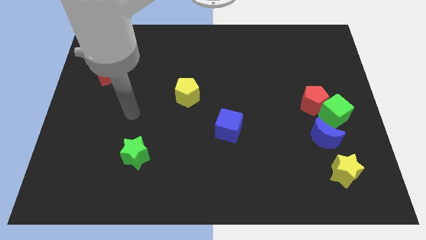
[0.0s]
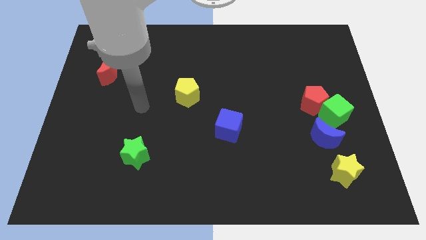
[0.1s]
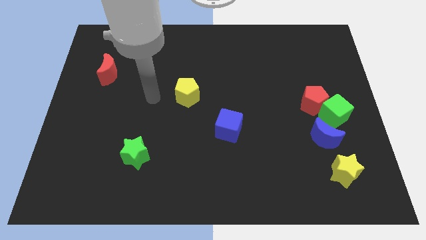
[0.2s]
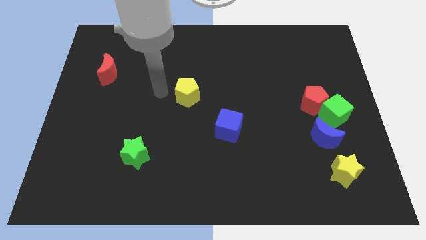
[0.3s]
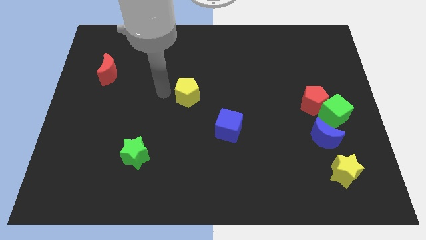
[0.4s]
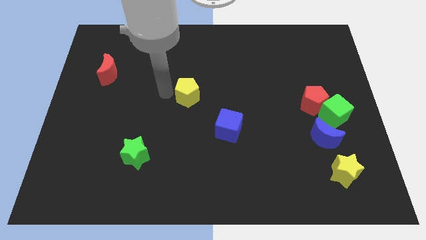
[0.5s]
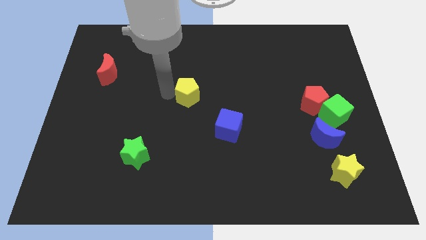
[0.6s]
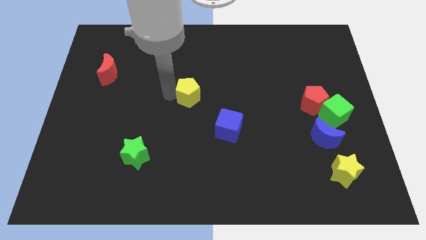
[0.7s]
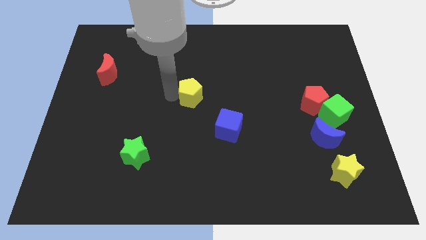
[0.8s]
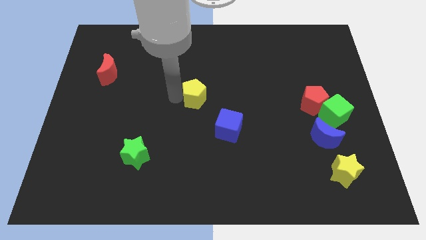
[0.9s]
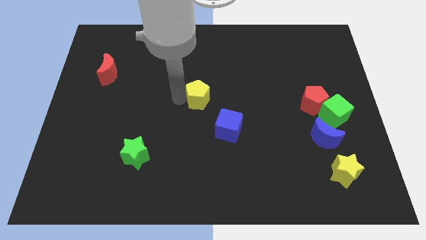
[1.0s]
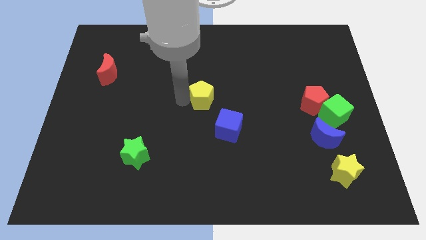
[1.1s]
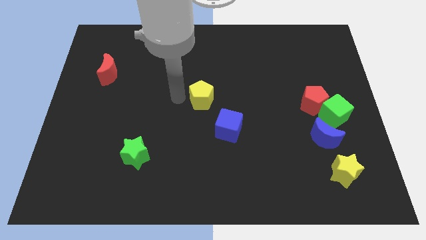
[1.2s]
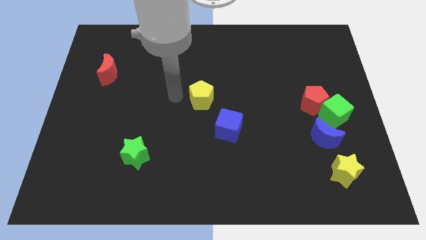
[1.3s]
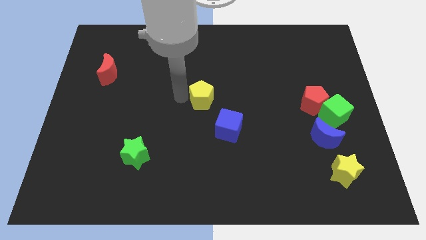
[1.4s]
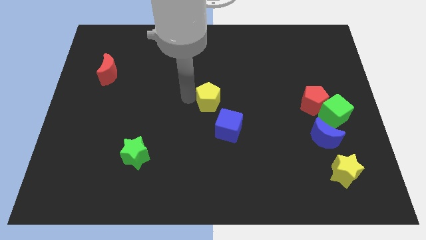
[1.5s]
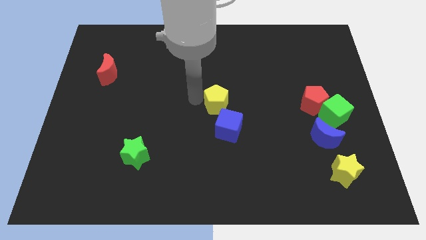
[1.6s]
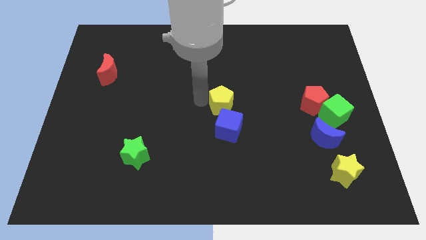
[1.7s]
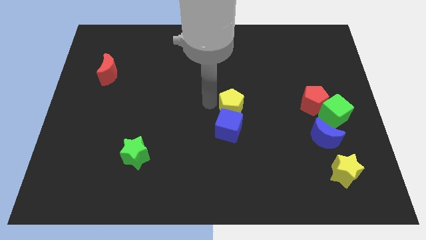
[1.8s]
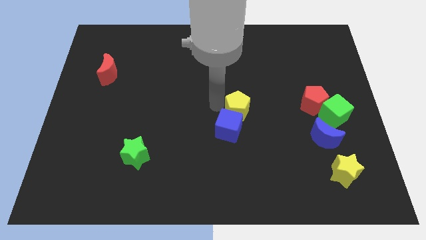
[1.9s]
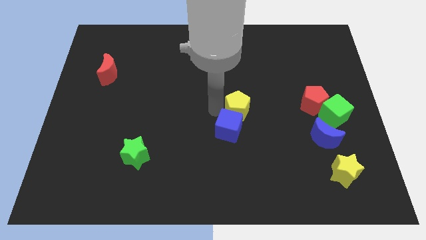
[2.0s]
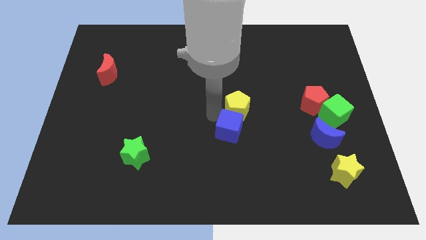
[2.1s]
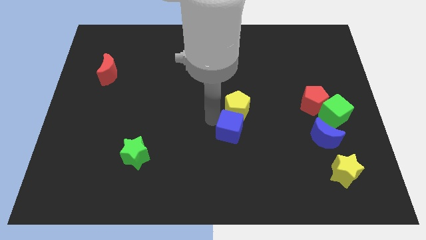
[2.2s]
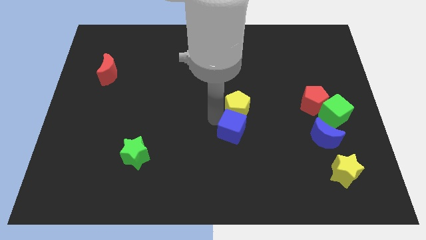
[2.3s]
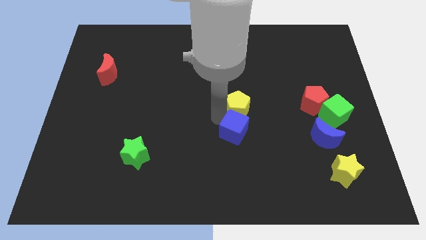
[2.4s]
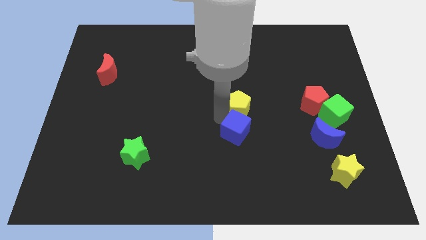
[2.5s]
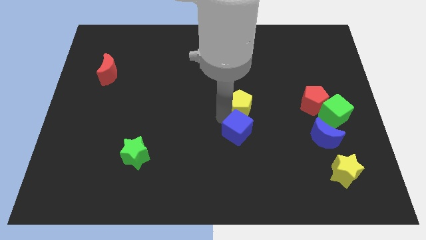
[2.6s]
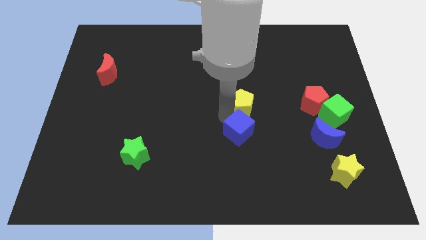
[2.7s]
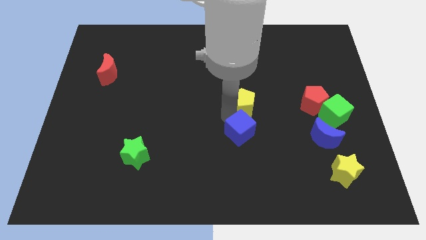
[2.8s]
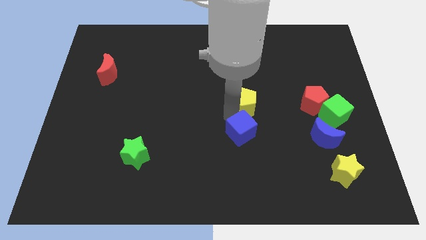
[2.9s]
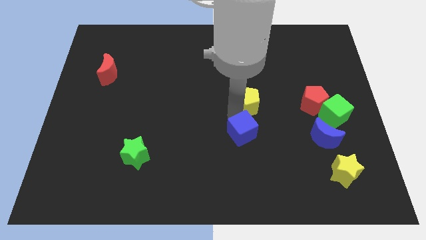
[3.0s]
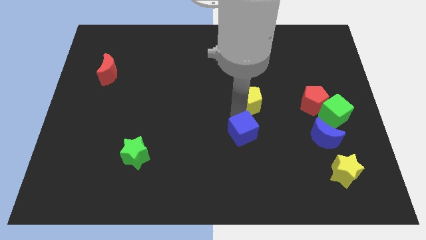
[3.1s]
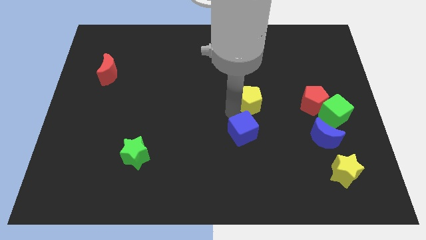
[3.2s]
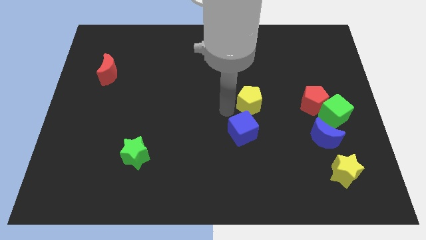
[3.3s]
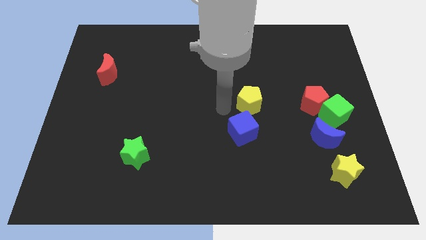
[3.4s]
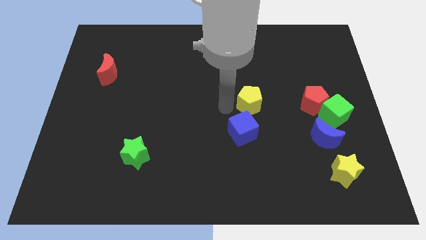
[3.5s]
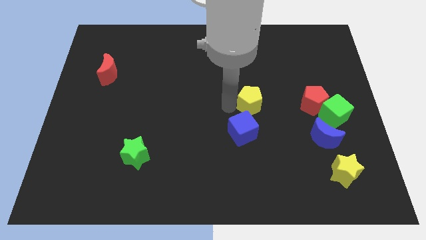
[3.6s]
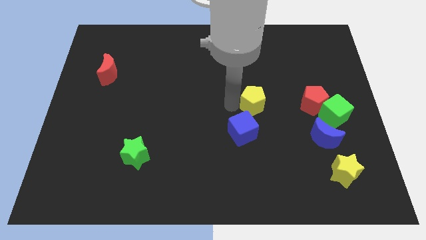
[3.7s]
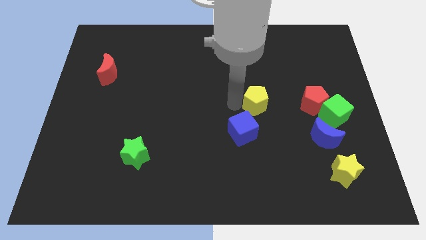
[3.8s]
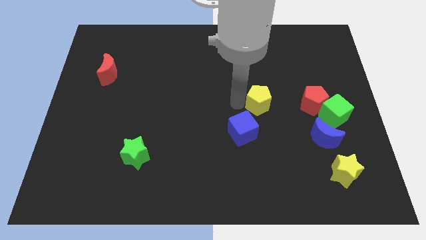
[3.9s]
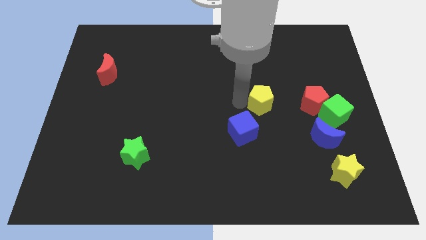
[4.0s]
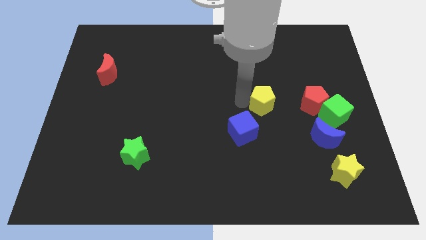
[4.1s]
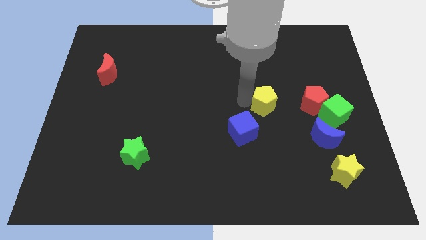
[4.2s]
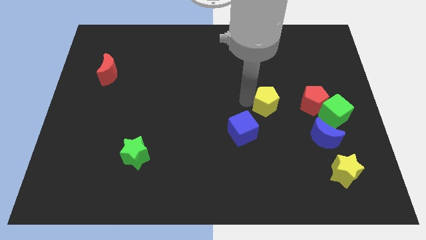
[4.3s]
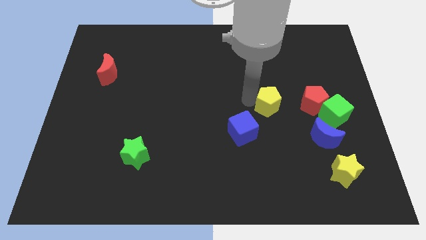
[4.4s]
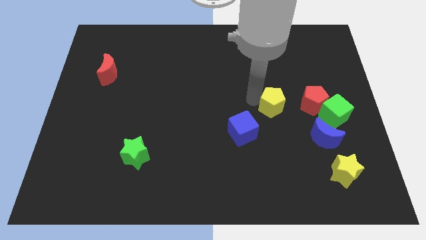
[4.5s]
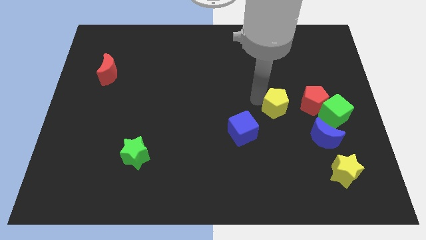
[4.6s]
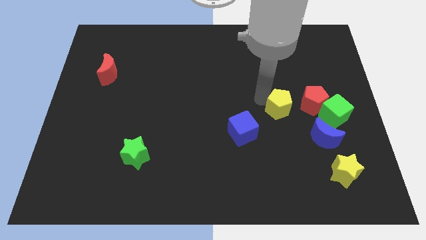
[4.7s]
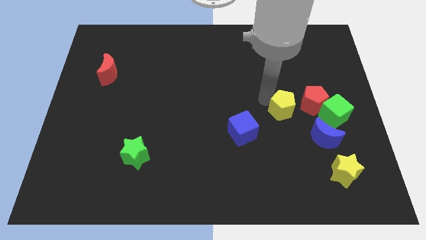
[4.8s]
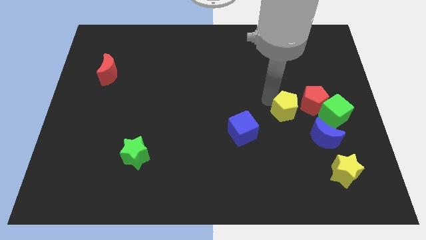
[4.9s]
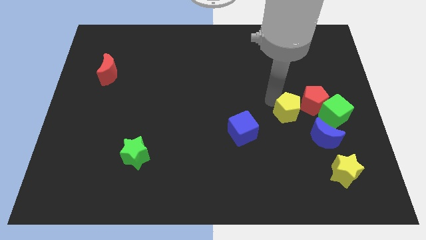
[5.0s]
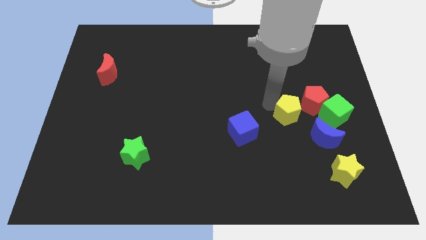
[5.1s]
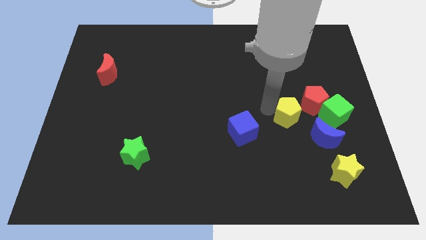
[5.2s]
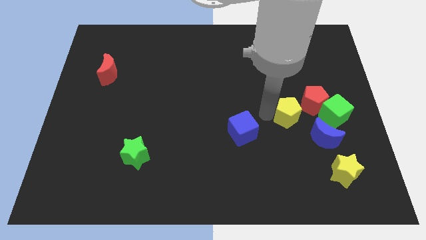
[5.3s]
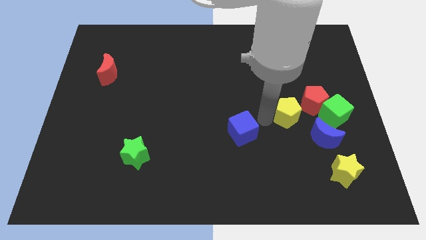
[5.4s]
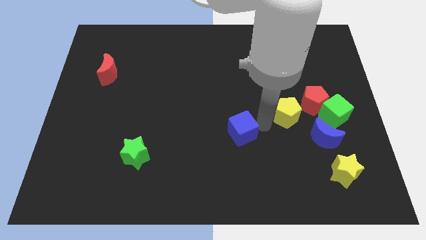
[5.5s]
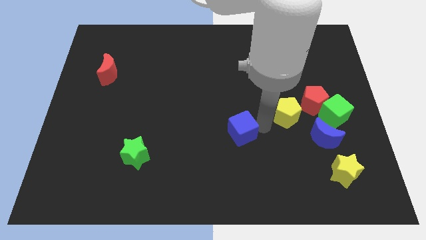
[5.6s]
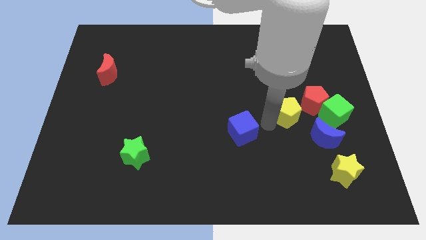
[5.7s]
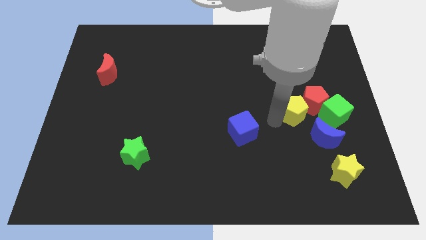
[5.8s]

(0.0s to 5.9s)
slide the yellow pentagon to the red pentagon

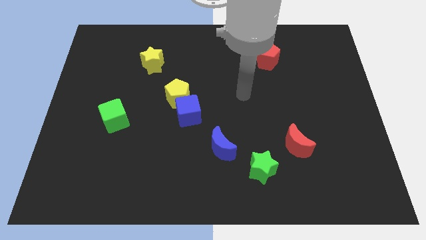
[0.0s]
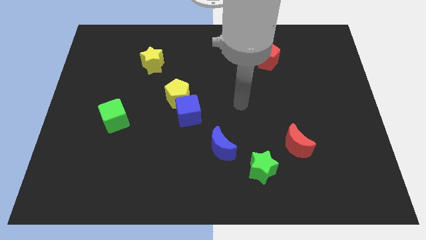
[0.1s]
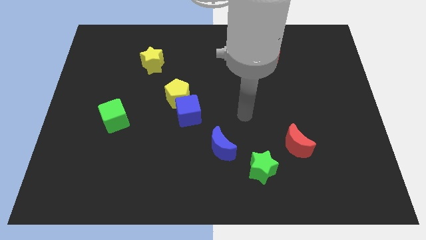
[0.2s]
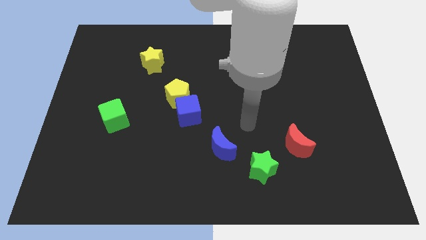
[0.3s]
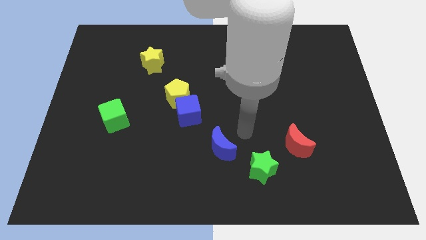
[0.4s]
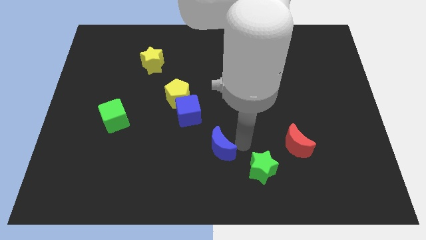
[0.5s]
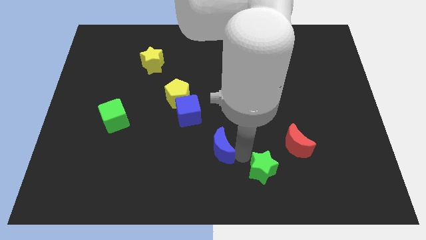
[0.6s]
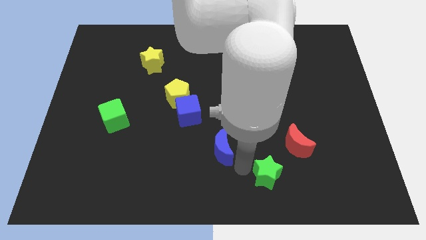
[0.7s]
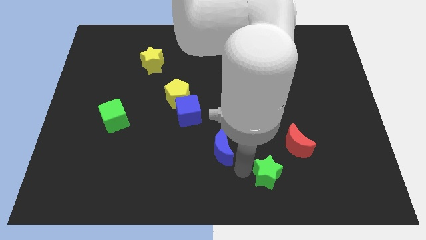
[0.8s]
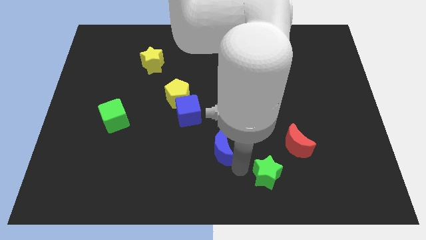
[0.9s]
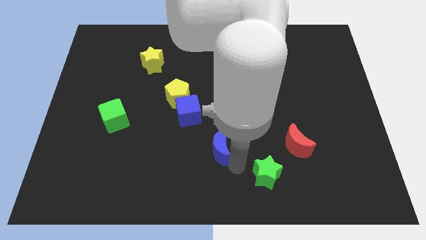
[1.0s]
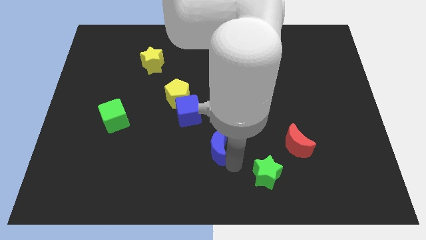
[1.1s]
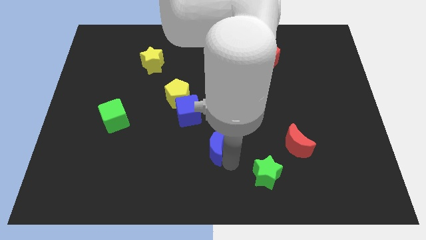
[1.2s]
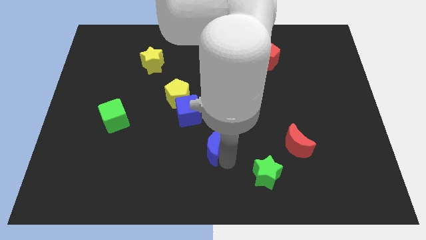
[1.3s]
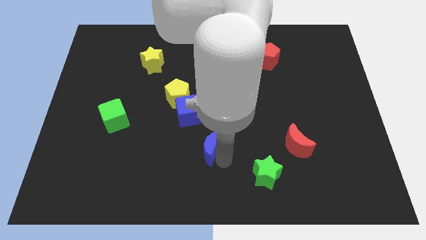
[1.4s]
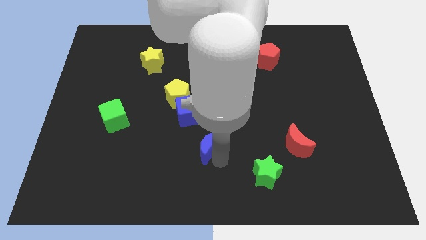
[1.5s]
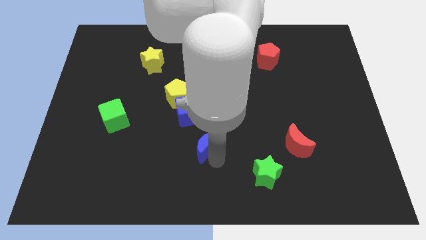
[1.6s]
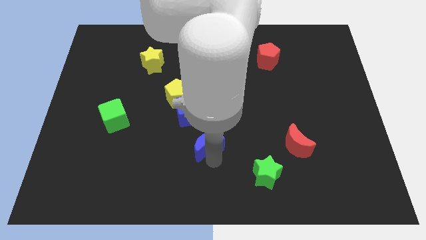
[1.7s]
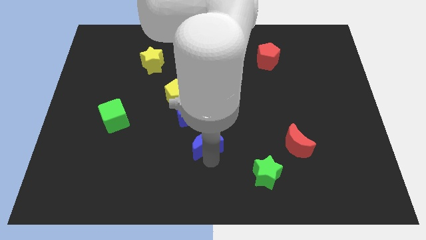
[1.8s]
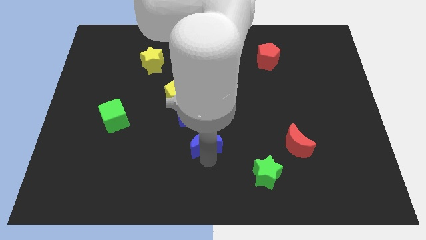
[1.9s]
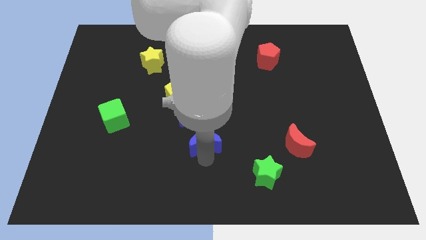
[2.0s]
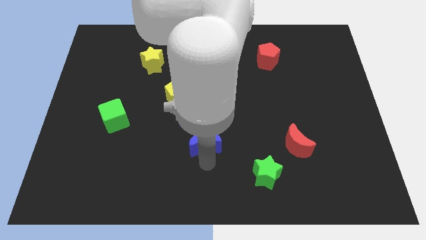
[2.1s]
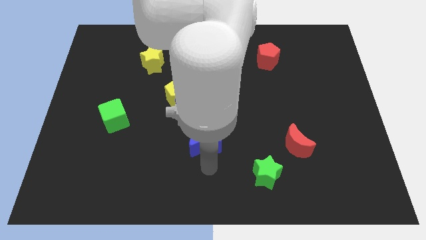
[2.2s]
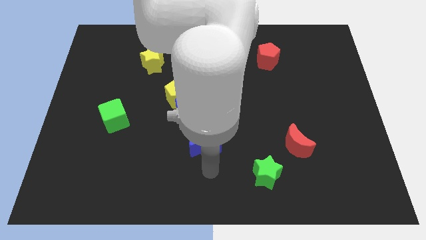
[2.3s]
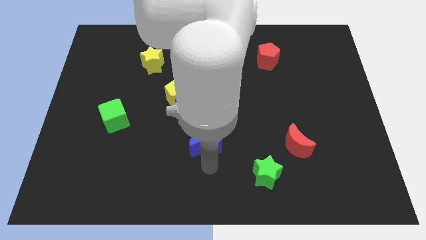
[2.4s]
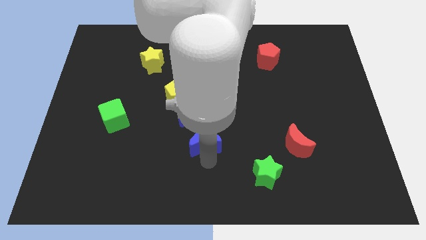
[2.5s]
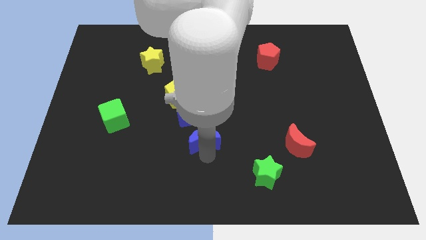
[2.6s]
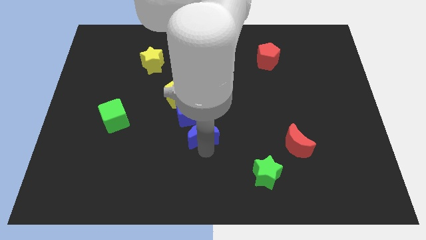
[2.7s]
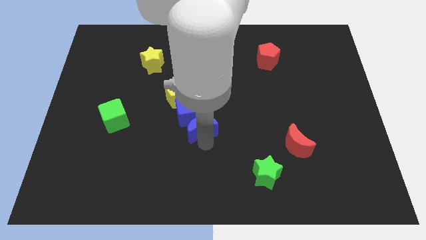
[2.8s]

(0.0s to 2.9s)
push the blue moon towards the blue cube
